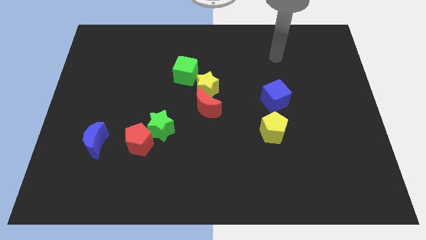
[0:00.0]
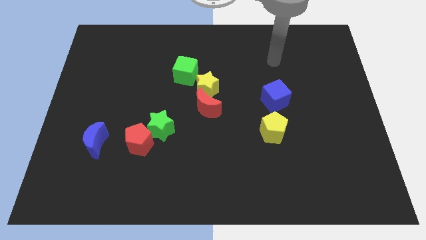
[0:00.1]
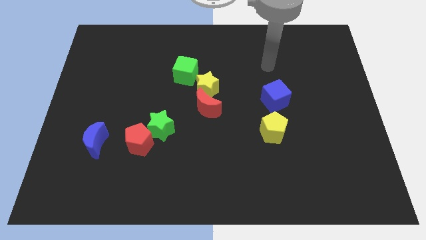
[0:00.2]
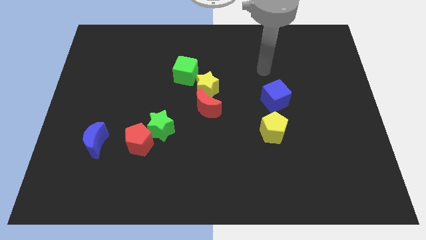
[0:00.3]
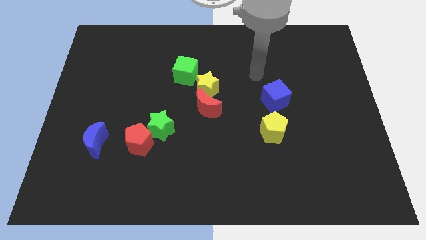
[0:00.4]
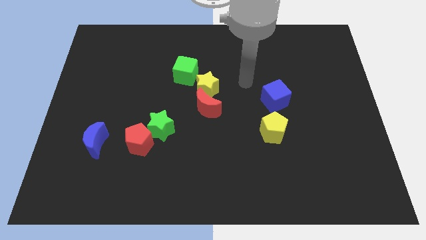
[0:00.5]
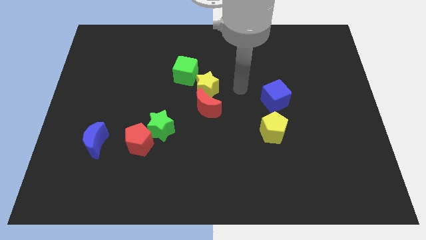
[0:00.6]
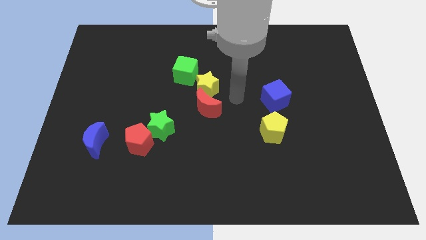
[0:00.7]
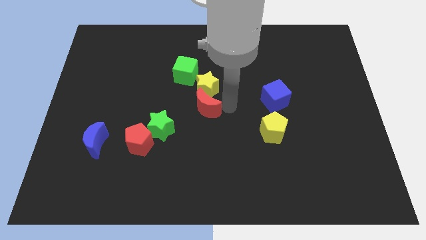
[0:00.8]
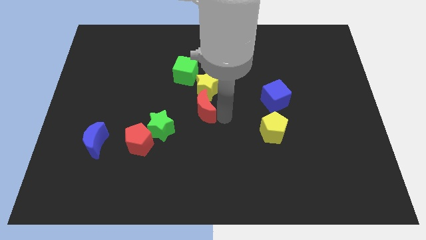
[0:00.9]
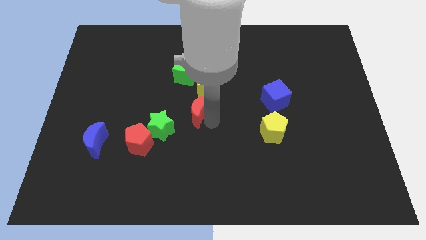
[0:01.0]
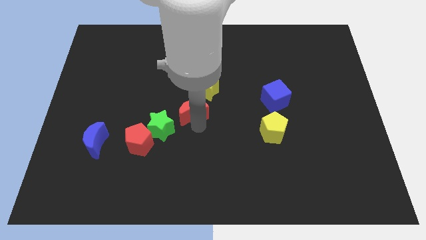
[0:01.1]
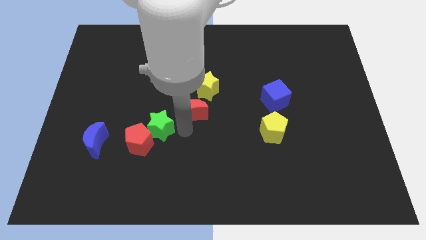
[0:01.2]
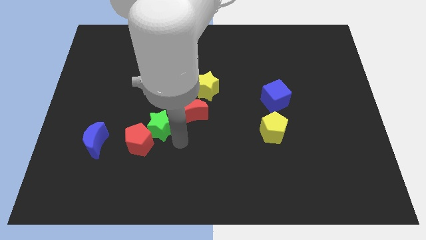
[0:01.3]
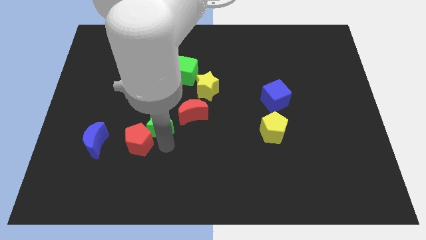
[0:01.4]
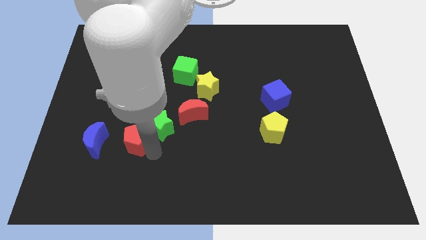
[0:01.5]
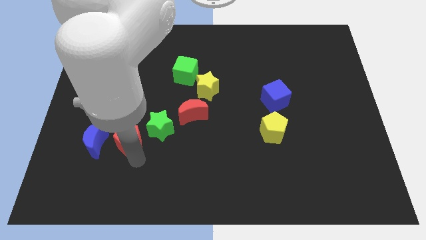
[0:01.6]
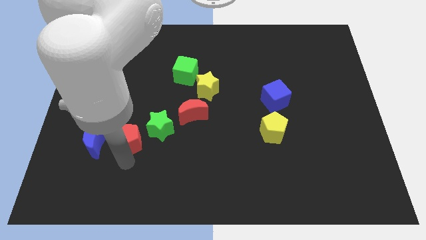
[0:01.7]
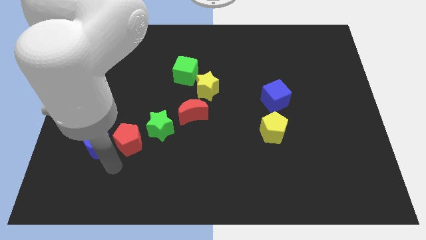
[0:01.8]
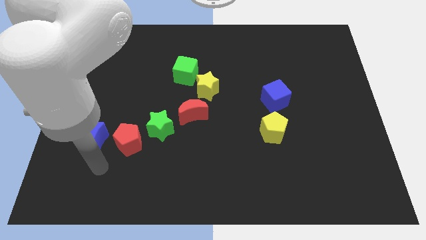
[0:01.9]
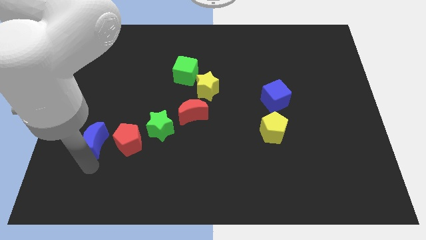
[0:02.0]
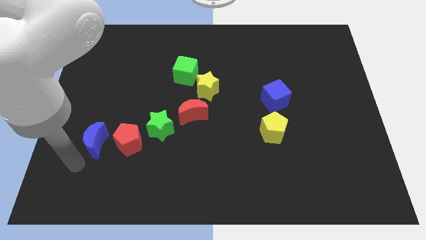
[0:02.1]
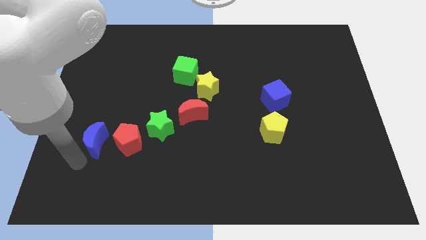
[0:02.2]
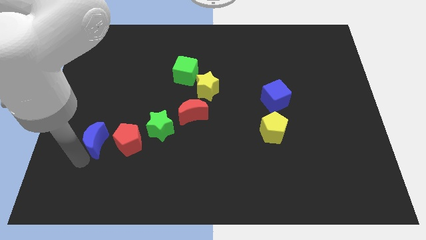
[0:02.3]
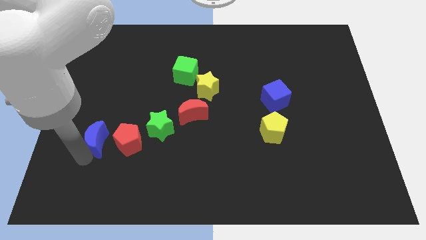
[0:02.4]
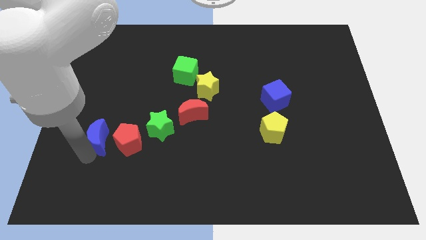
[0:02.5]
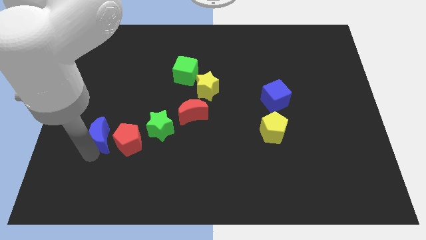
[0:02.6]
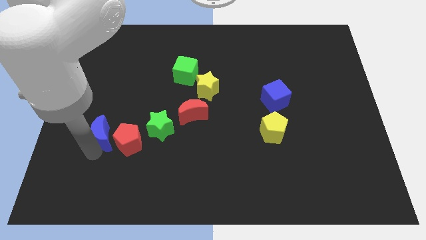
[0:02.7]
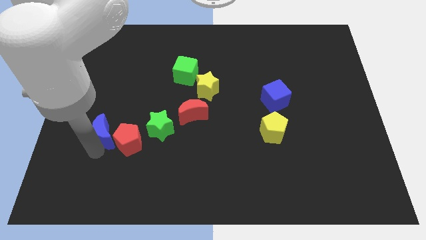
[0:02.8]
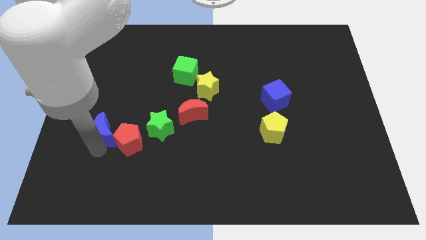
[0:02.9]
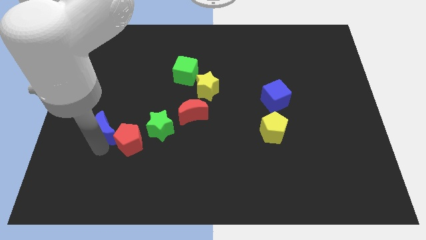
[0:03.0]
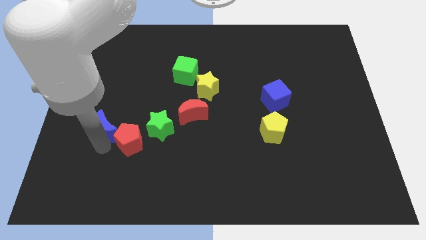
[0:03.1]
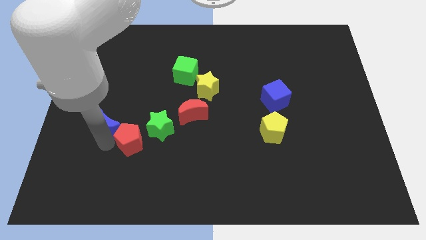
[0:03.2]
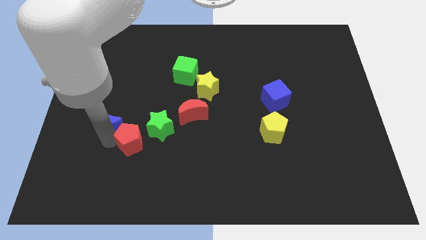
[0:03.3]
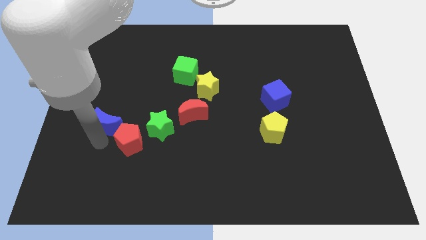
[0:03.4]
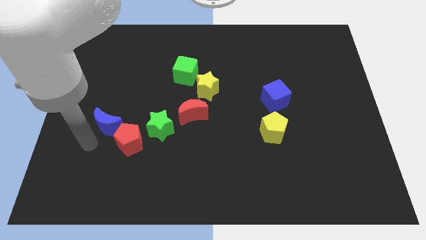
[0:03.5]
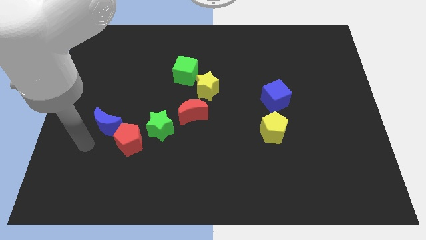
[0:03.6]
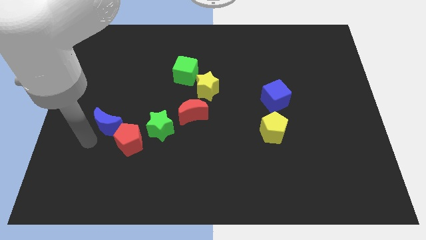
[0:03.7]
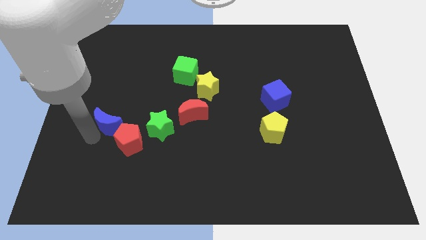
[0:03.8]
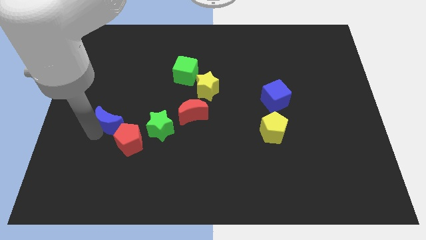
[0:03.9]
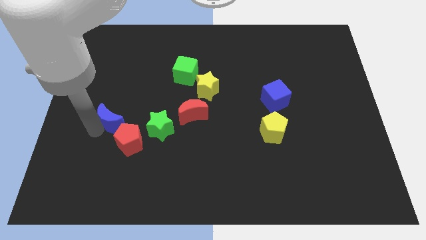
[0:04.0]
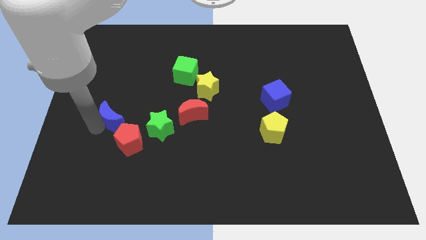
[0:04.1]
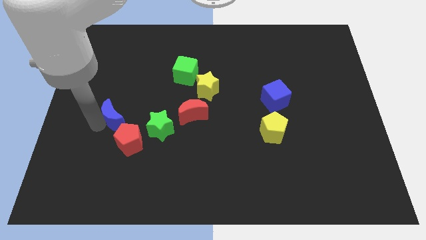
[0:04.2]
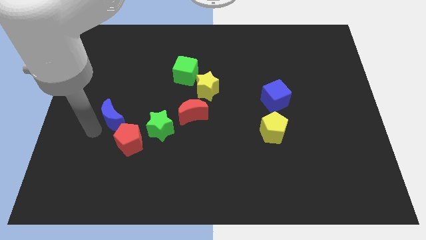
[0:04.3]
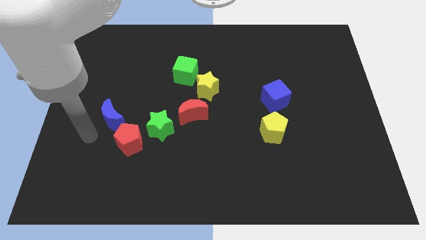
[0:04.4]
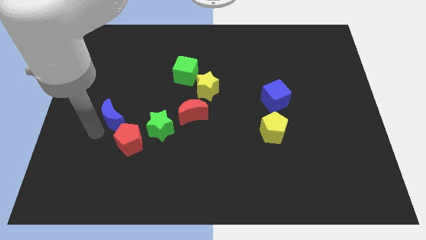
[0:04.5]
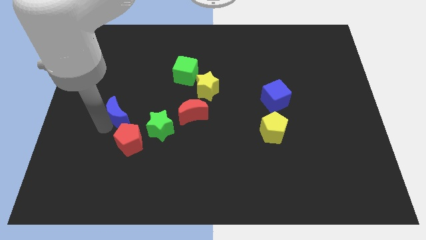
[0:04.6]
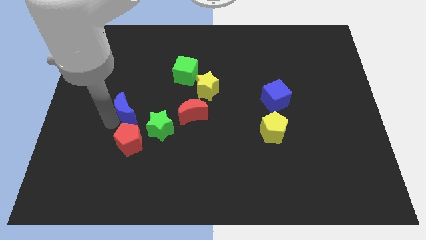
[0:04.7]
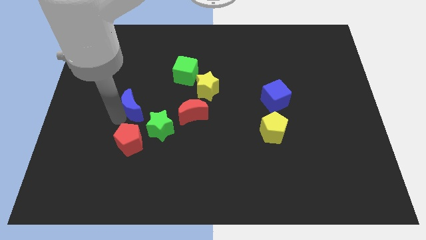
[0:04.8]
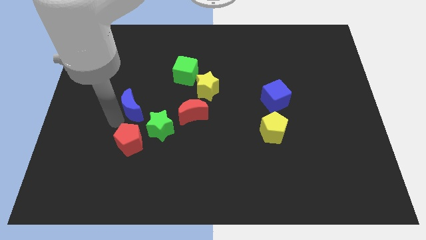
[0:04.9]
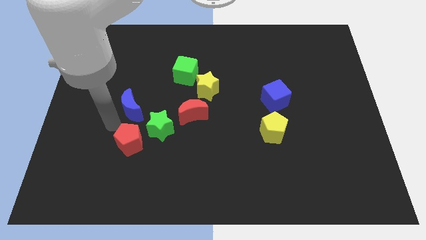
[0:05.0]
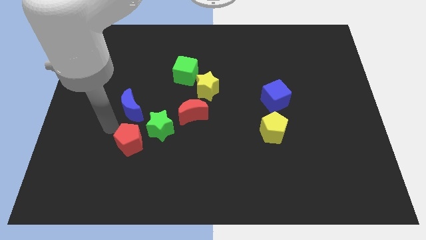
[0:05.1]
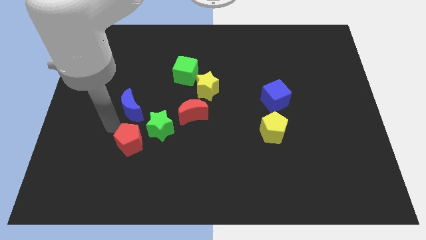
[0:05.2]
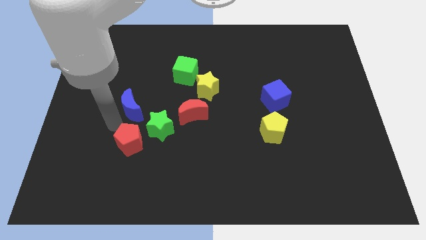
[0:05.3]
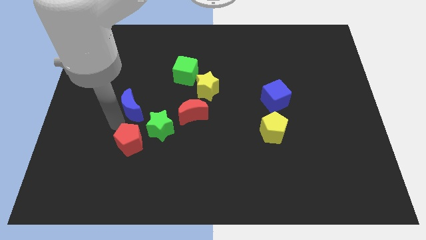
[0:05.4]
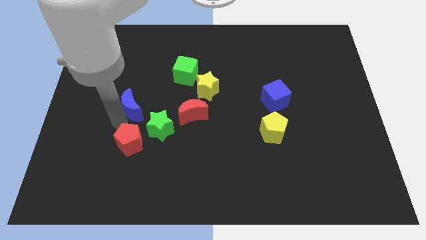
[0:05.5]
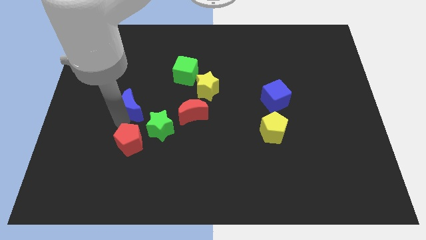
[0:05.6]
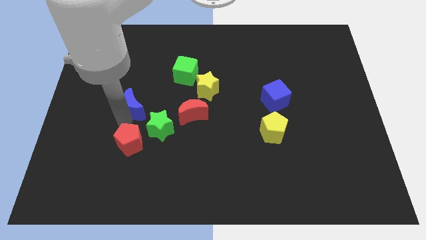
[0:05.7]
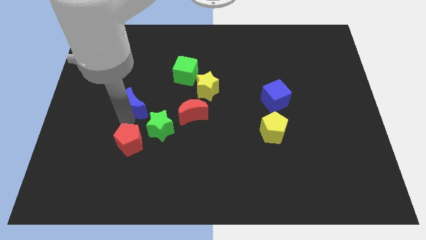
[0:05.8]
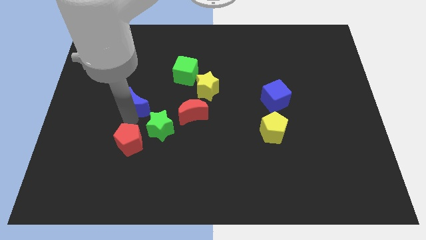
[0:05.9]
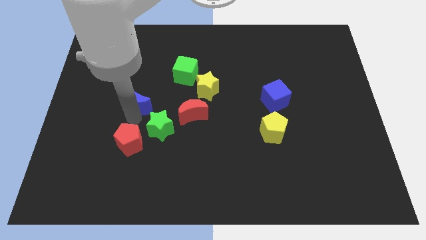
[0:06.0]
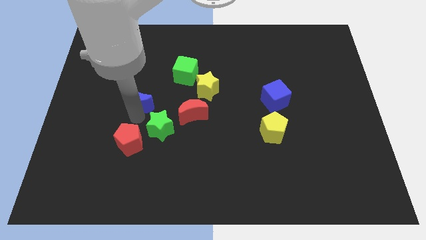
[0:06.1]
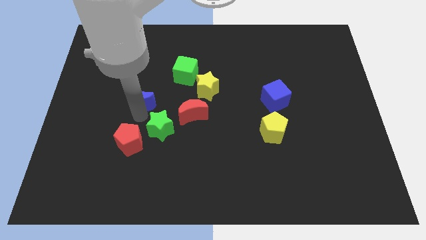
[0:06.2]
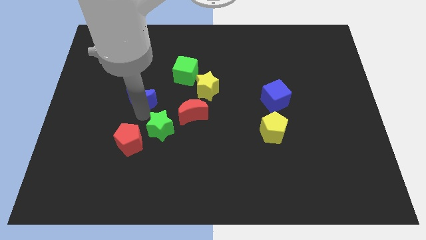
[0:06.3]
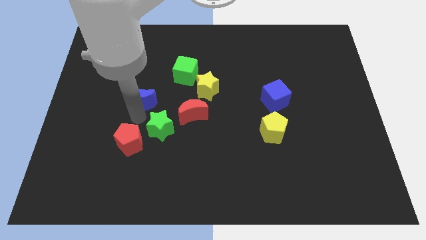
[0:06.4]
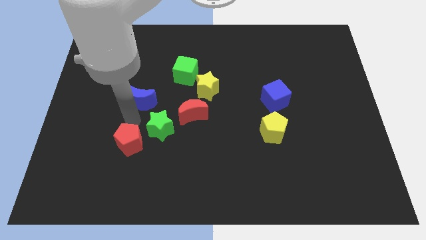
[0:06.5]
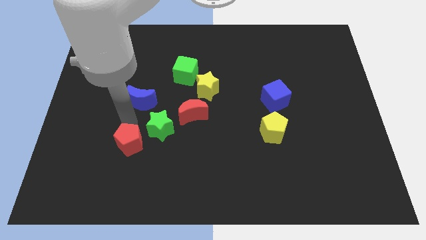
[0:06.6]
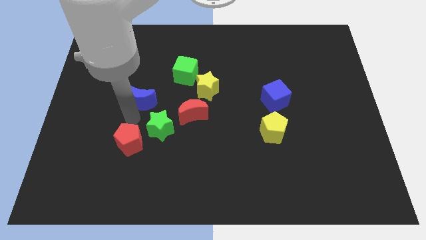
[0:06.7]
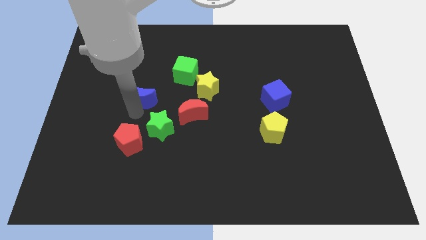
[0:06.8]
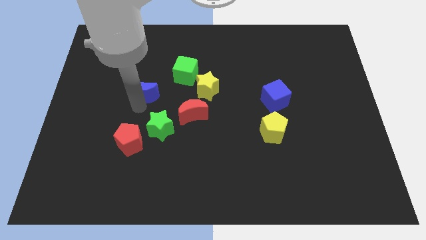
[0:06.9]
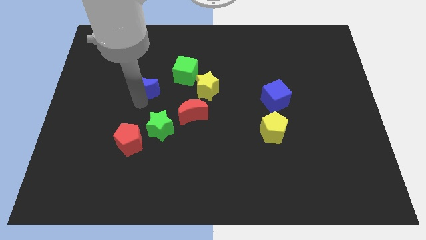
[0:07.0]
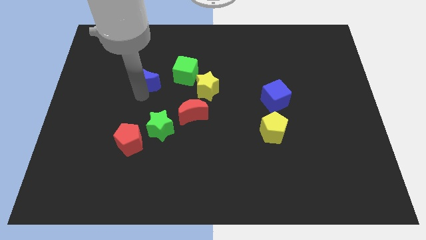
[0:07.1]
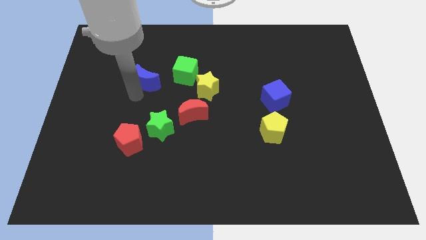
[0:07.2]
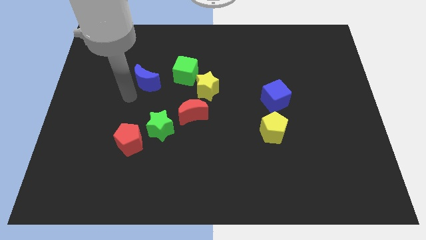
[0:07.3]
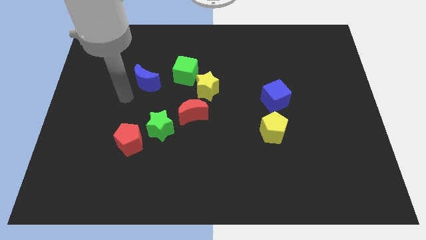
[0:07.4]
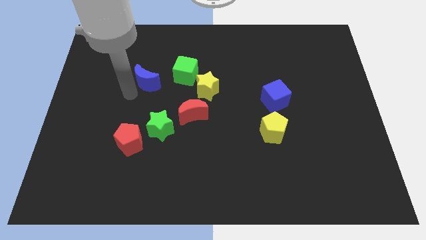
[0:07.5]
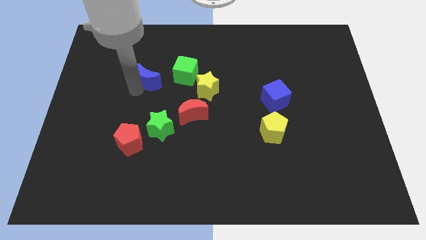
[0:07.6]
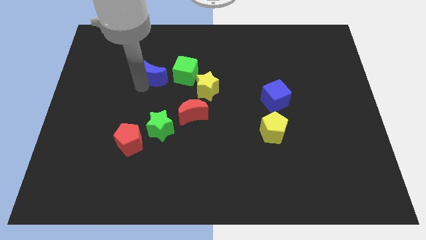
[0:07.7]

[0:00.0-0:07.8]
slide the blue moon up and then right

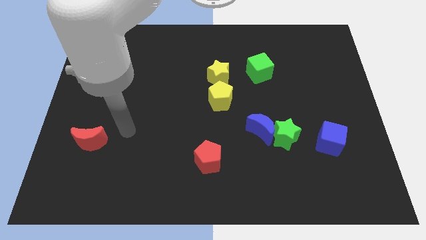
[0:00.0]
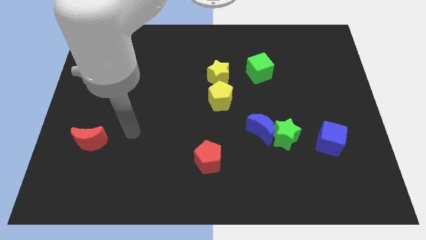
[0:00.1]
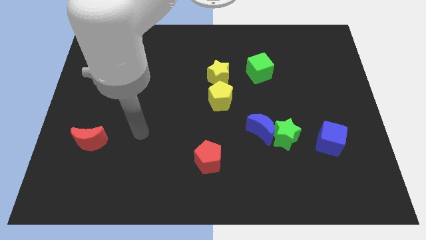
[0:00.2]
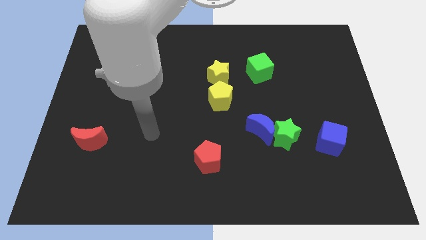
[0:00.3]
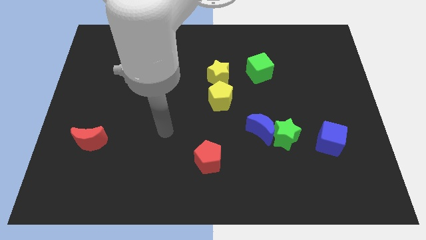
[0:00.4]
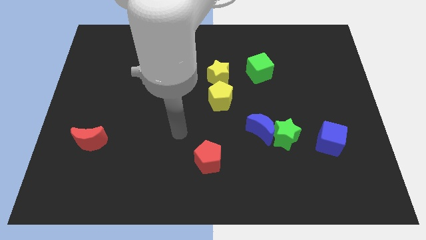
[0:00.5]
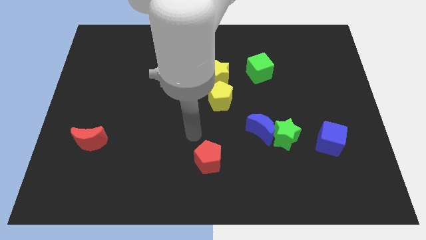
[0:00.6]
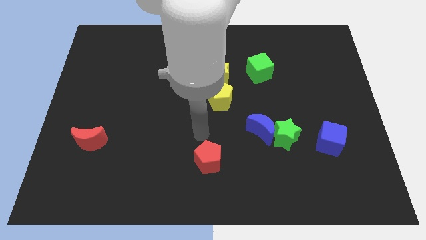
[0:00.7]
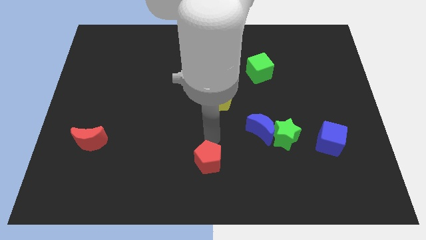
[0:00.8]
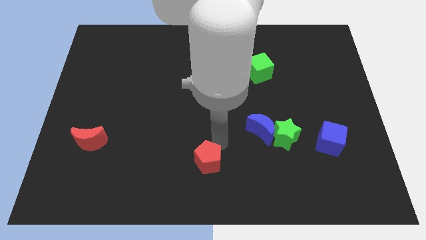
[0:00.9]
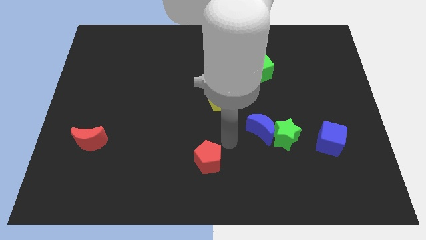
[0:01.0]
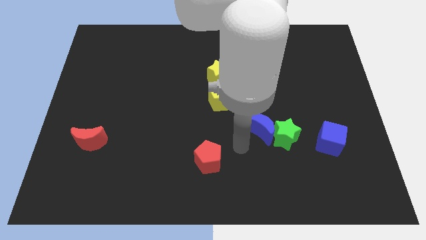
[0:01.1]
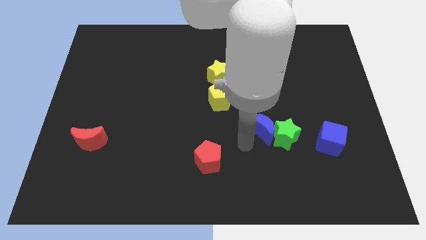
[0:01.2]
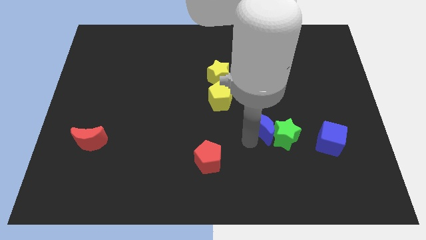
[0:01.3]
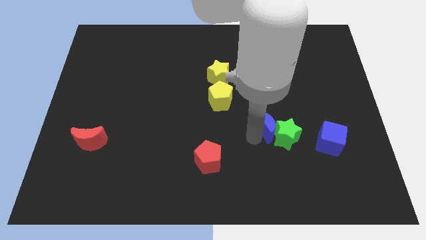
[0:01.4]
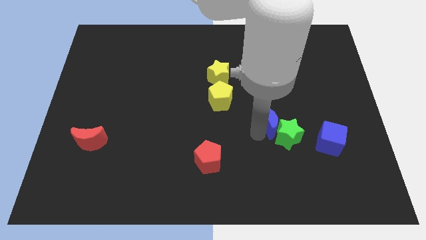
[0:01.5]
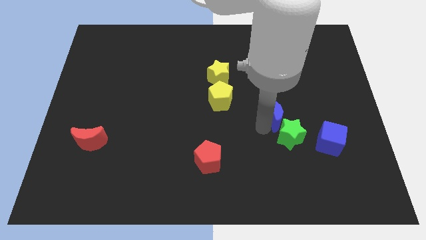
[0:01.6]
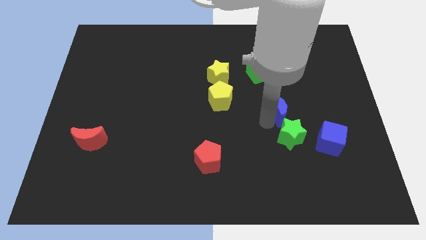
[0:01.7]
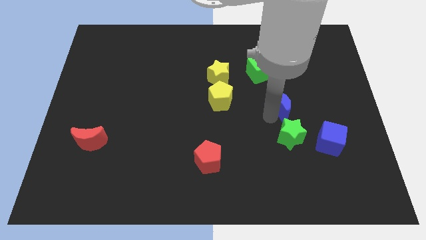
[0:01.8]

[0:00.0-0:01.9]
slightly slide the blue moon up and then right
